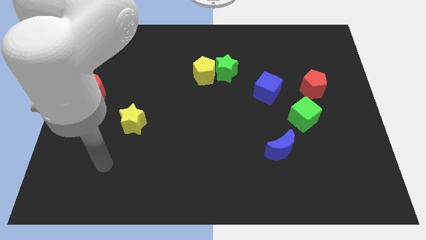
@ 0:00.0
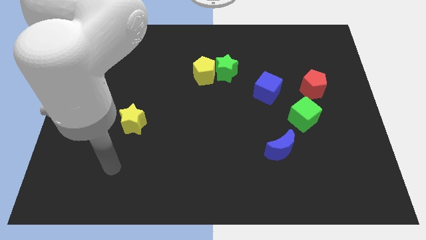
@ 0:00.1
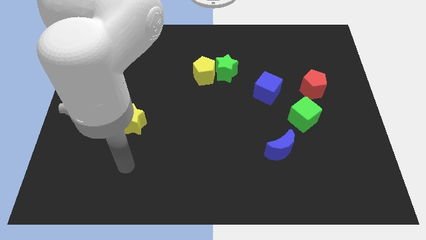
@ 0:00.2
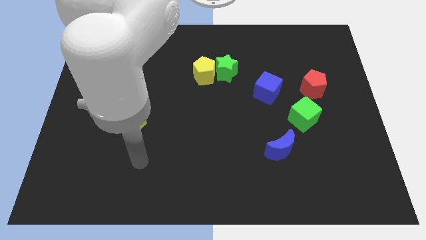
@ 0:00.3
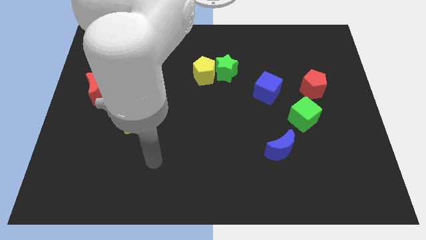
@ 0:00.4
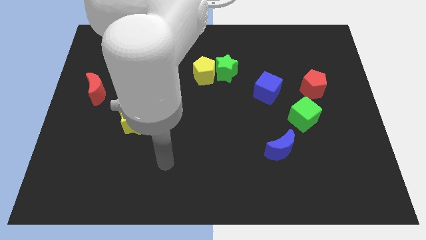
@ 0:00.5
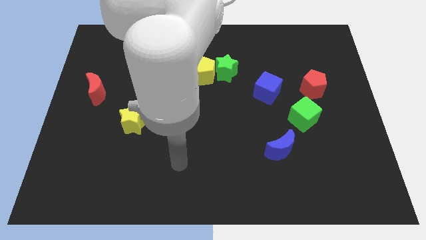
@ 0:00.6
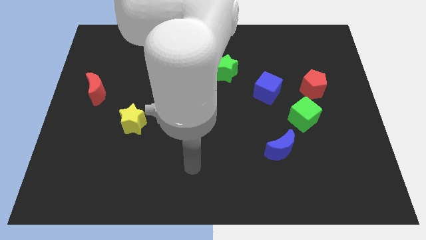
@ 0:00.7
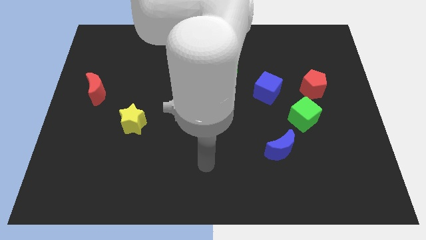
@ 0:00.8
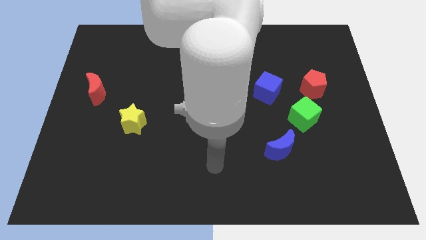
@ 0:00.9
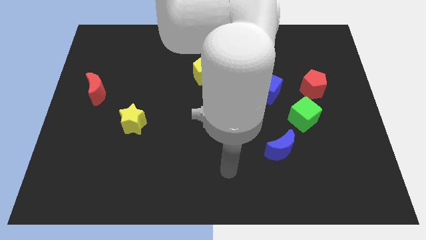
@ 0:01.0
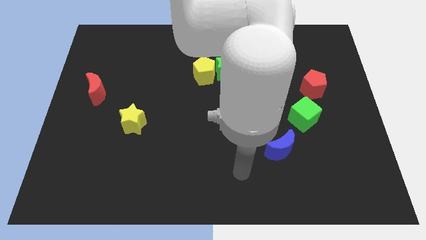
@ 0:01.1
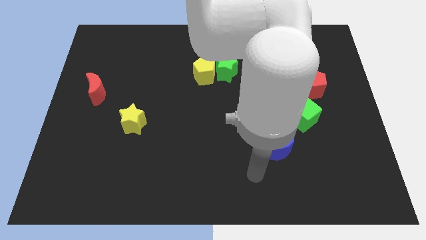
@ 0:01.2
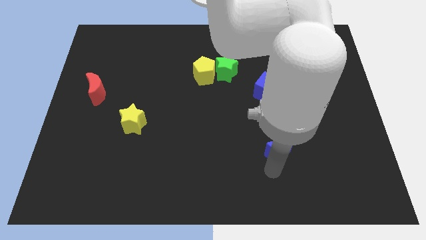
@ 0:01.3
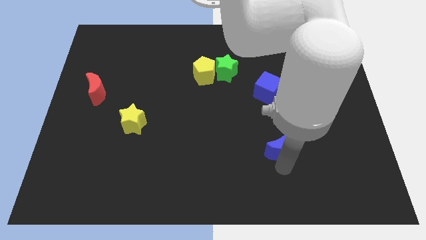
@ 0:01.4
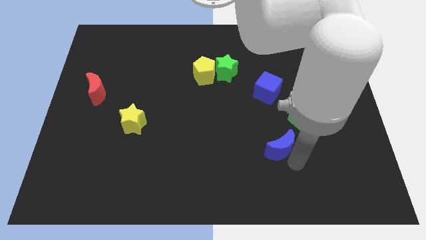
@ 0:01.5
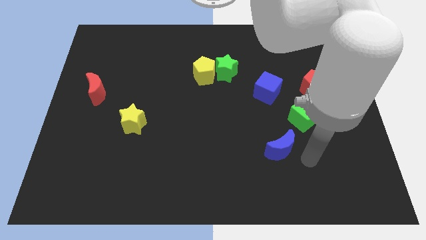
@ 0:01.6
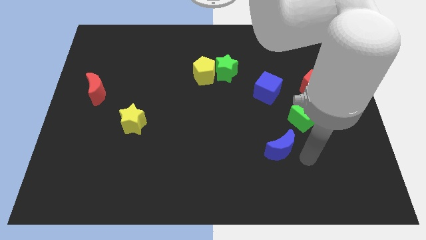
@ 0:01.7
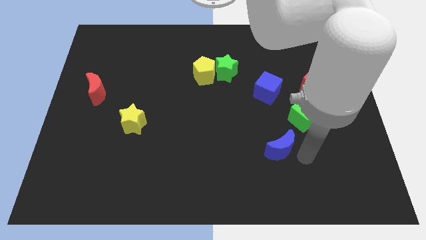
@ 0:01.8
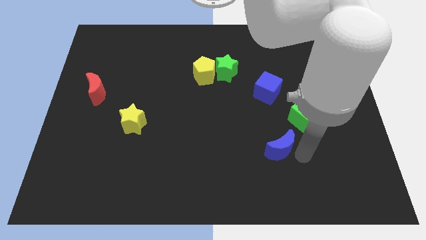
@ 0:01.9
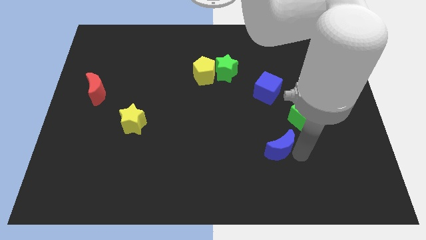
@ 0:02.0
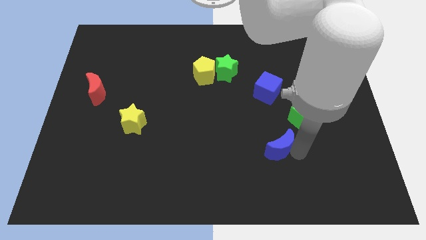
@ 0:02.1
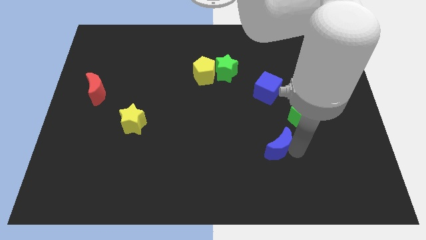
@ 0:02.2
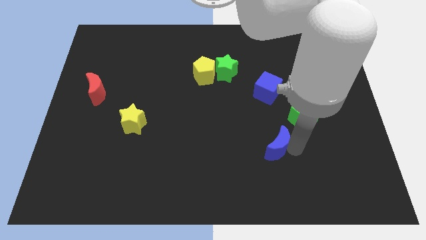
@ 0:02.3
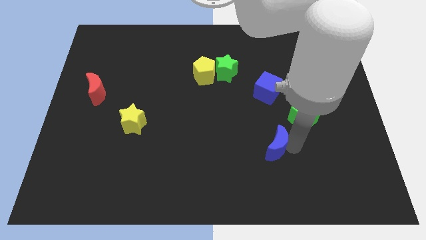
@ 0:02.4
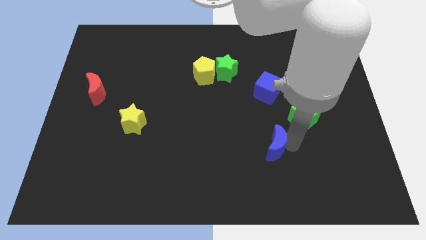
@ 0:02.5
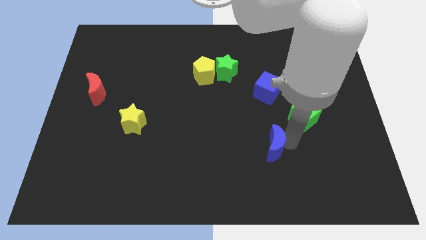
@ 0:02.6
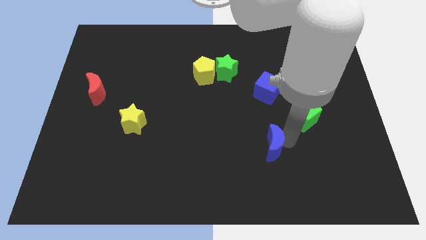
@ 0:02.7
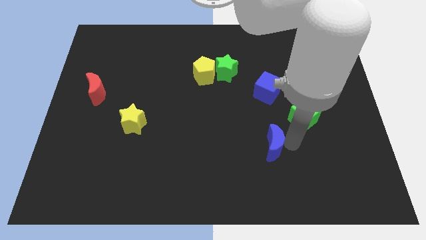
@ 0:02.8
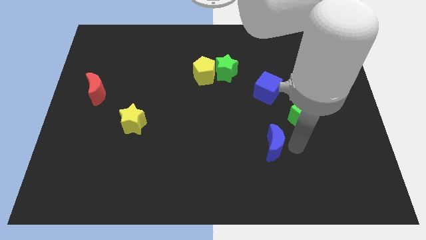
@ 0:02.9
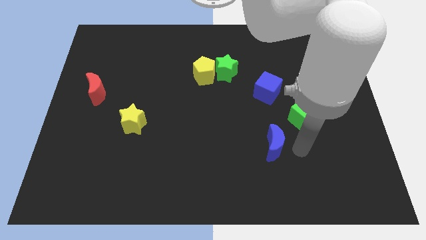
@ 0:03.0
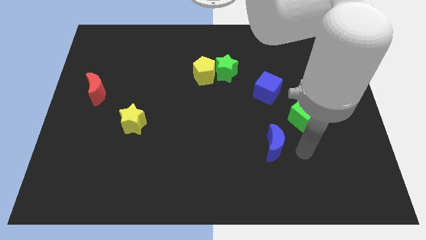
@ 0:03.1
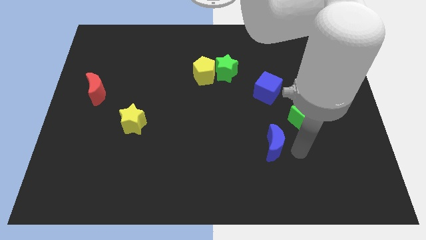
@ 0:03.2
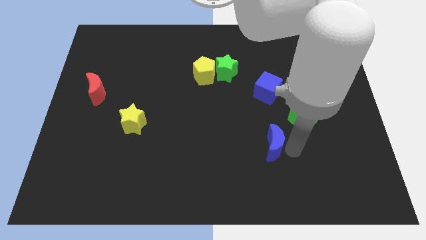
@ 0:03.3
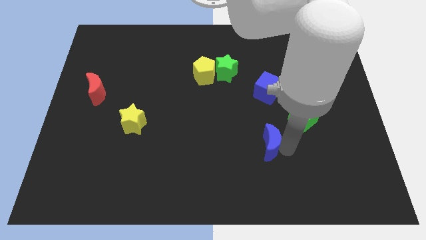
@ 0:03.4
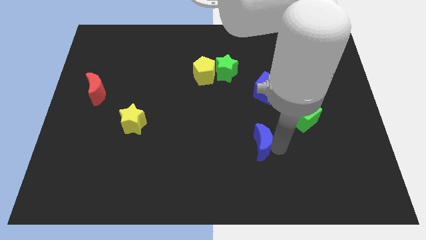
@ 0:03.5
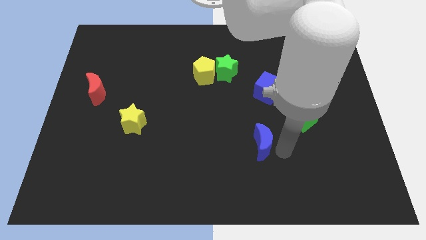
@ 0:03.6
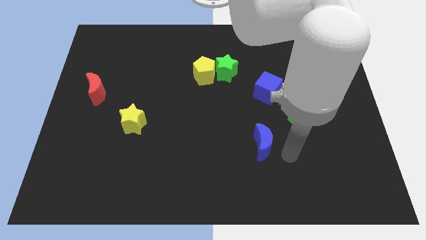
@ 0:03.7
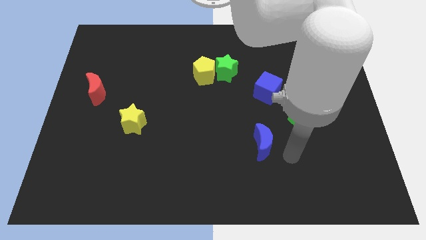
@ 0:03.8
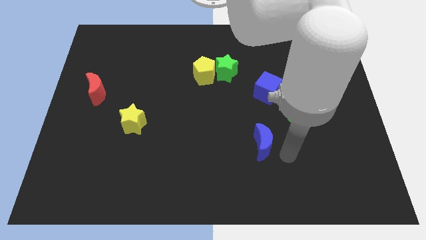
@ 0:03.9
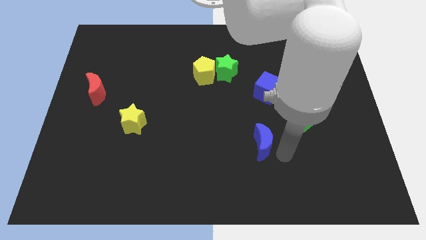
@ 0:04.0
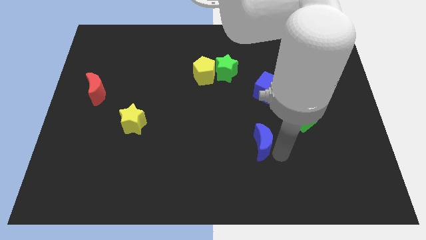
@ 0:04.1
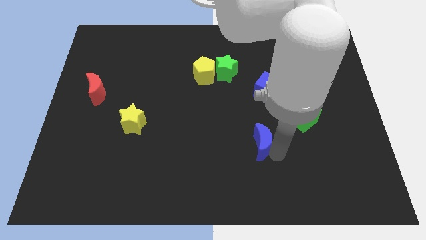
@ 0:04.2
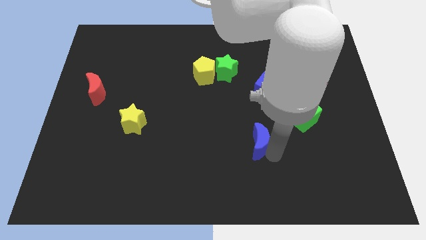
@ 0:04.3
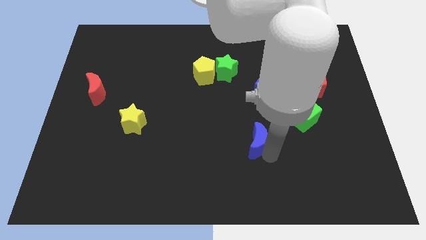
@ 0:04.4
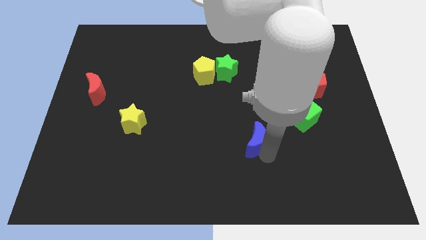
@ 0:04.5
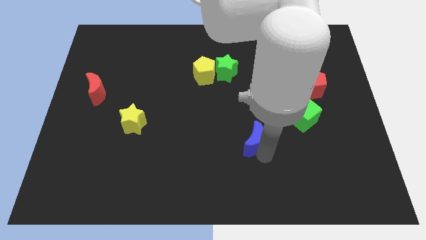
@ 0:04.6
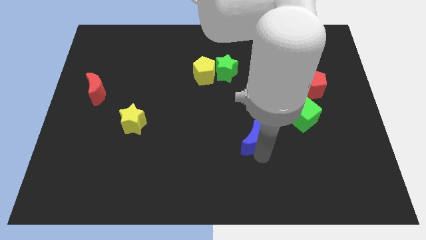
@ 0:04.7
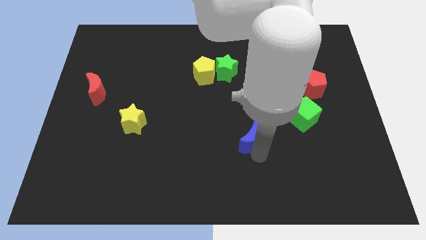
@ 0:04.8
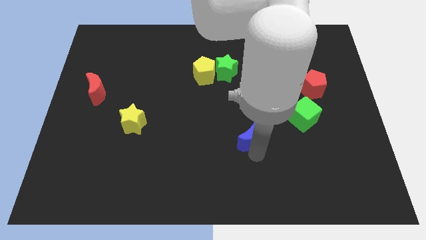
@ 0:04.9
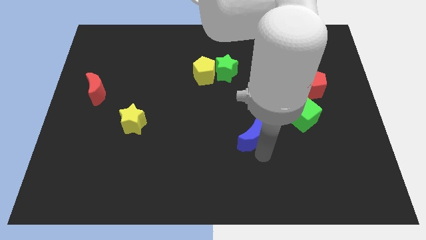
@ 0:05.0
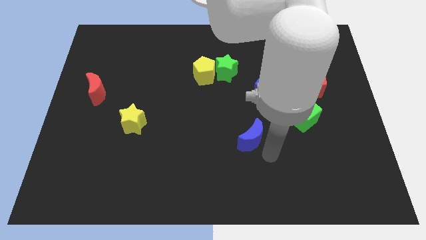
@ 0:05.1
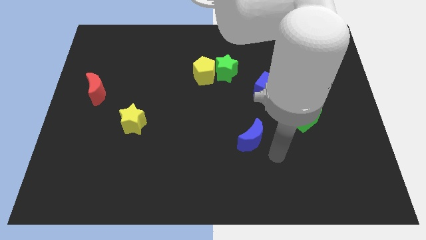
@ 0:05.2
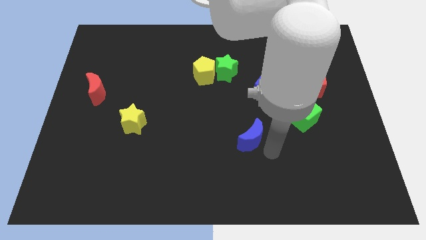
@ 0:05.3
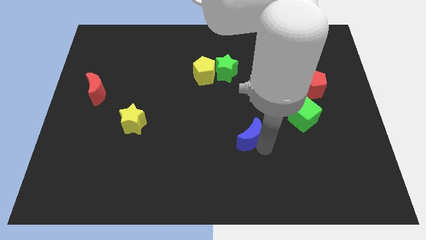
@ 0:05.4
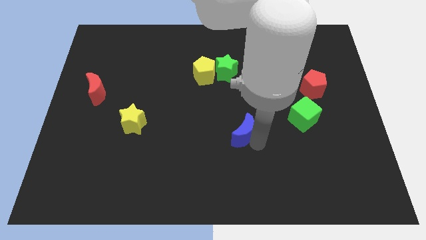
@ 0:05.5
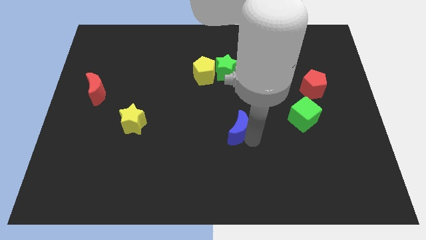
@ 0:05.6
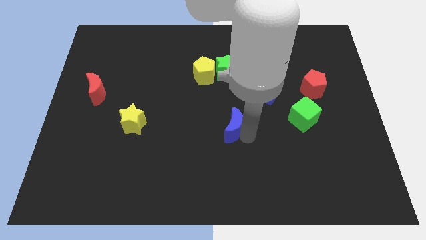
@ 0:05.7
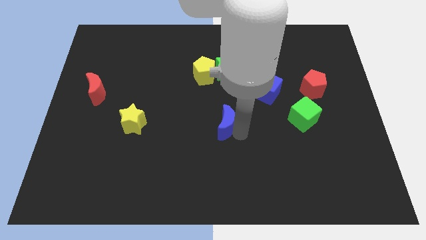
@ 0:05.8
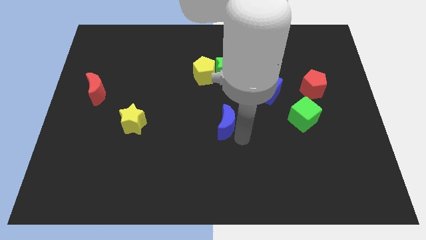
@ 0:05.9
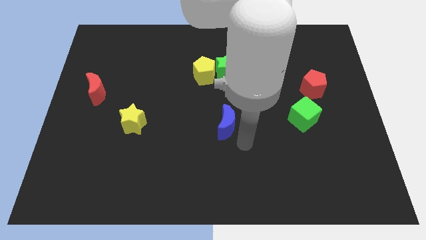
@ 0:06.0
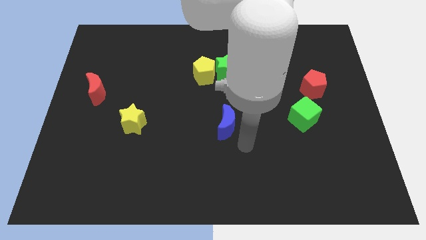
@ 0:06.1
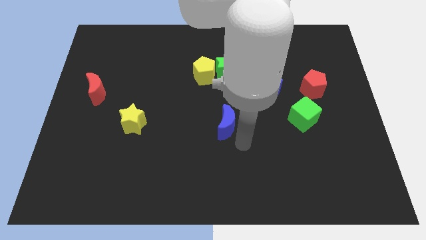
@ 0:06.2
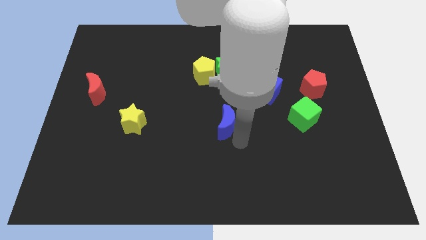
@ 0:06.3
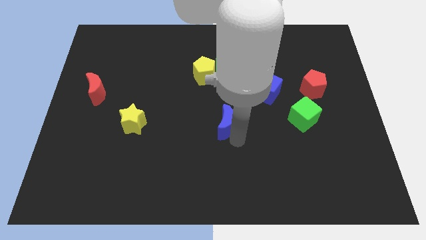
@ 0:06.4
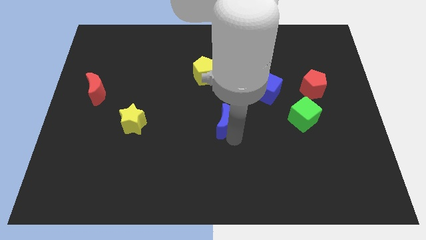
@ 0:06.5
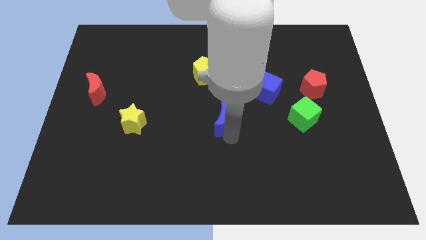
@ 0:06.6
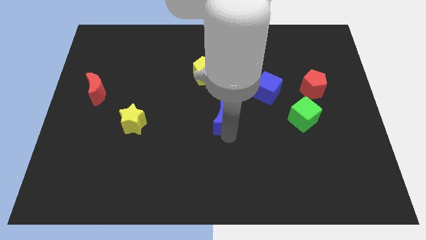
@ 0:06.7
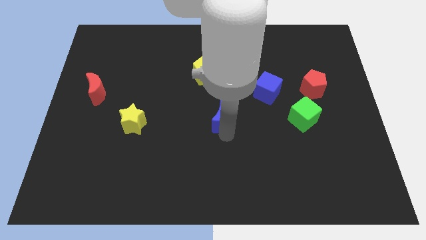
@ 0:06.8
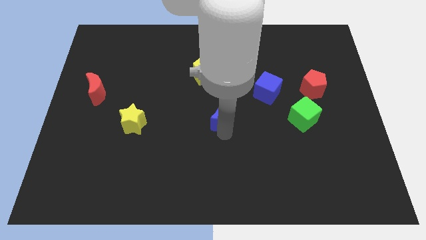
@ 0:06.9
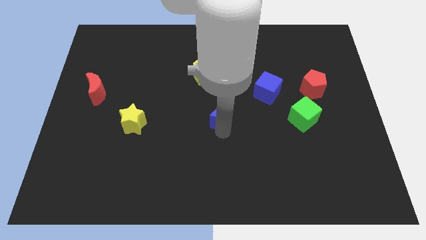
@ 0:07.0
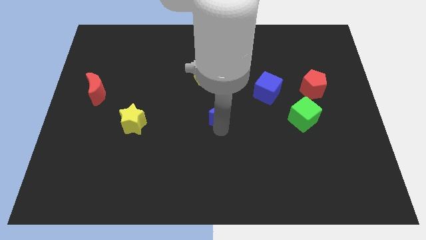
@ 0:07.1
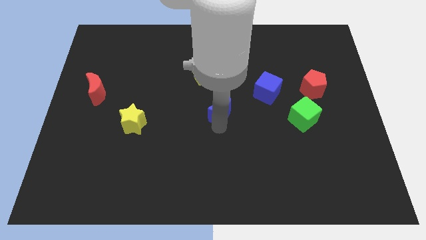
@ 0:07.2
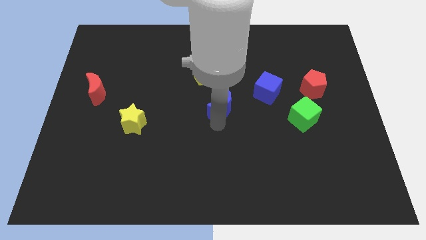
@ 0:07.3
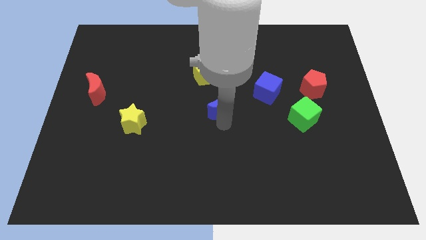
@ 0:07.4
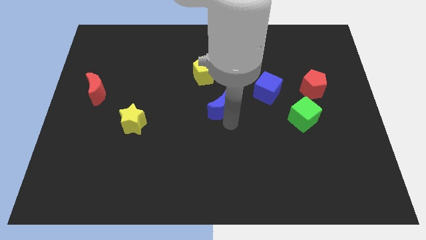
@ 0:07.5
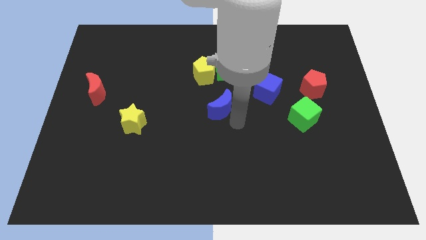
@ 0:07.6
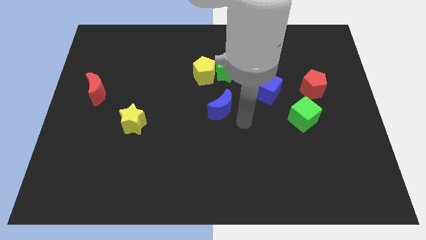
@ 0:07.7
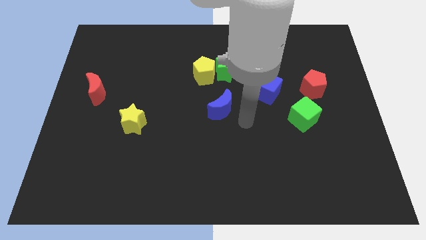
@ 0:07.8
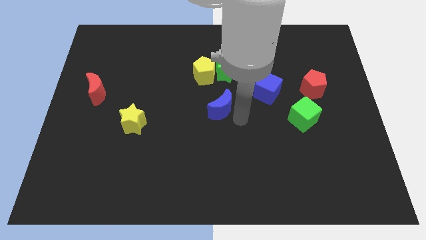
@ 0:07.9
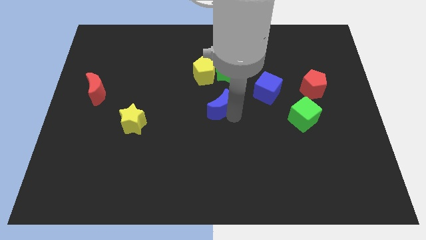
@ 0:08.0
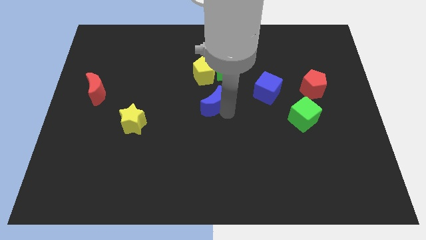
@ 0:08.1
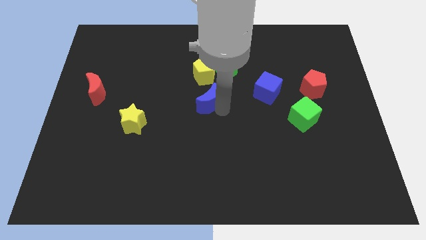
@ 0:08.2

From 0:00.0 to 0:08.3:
slide the blue moon upwards and to the left
